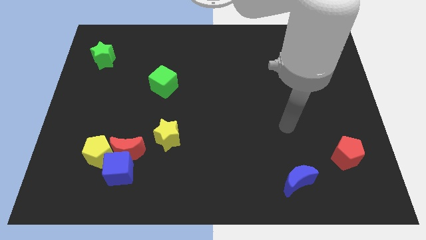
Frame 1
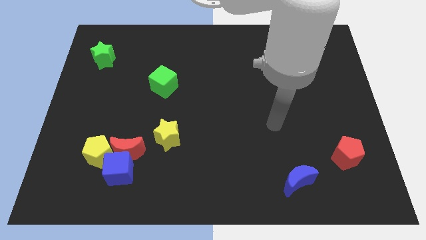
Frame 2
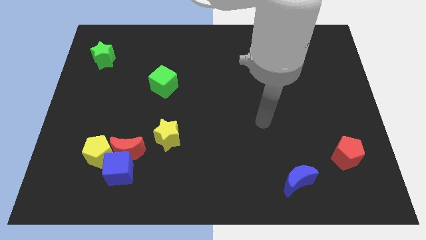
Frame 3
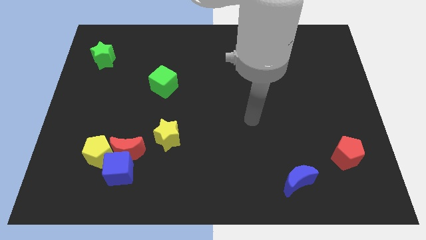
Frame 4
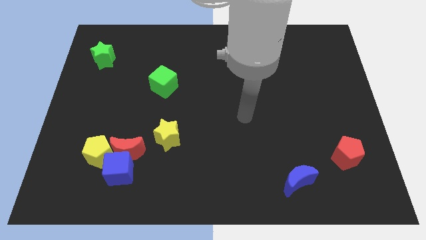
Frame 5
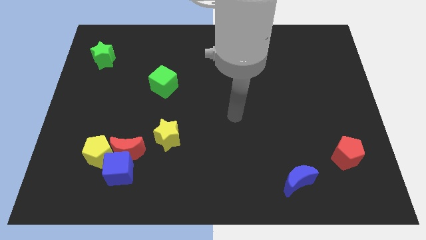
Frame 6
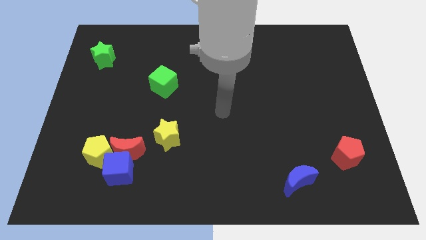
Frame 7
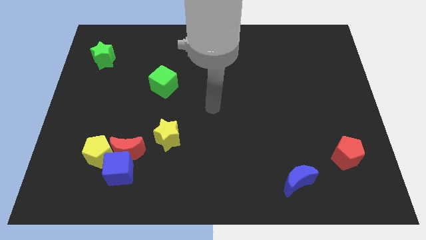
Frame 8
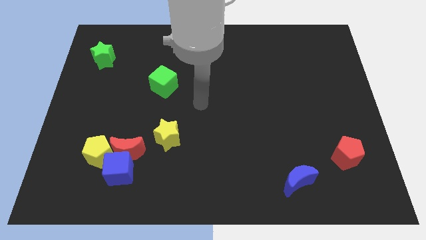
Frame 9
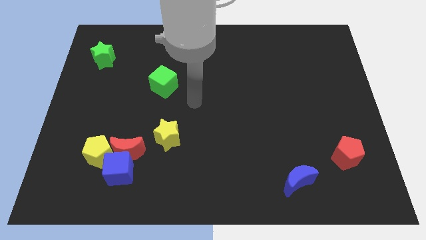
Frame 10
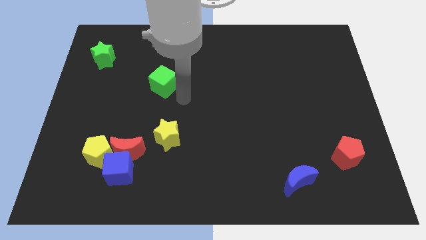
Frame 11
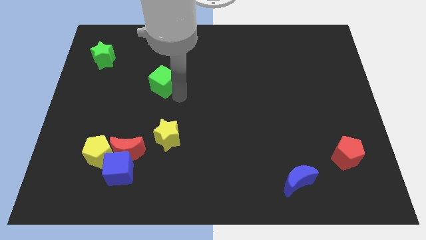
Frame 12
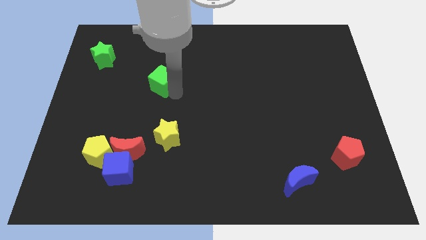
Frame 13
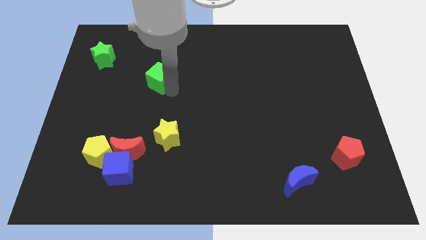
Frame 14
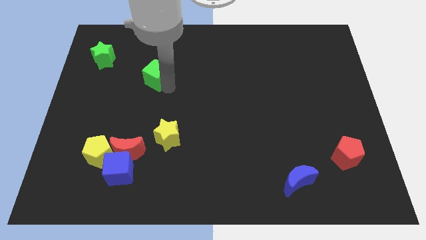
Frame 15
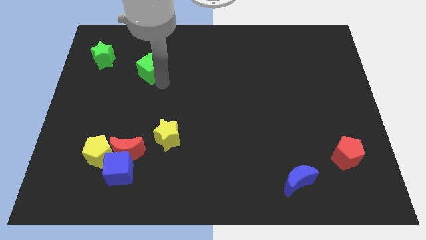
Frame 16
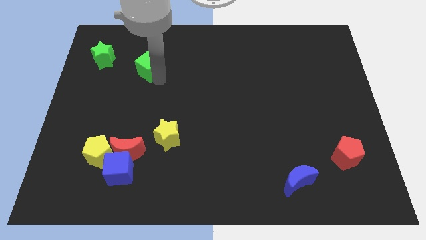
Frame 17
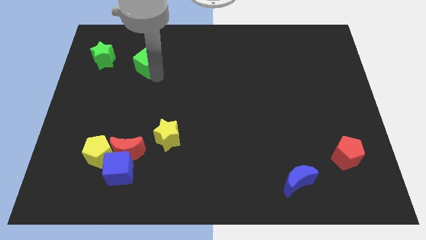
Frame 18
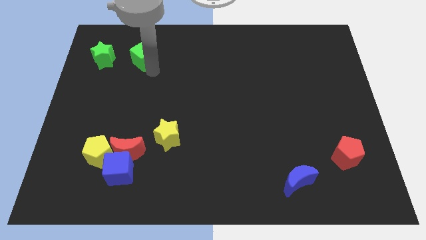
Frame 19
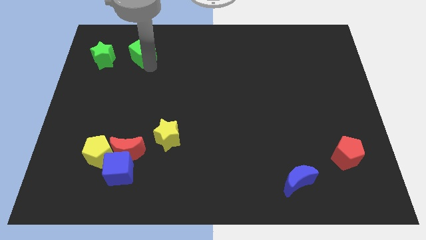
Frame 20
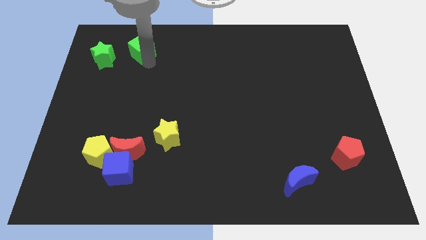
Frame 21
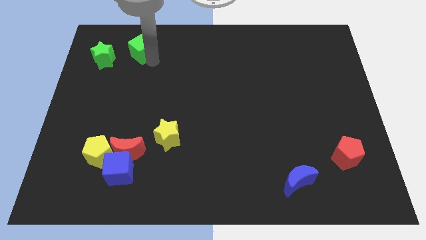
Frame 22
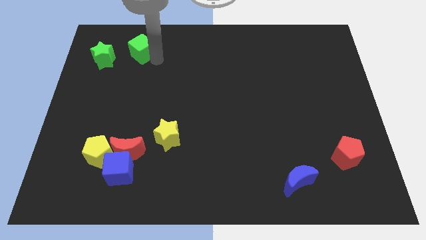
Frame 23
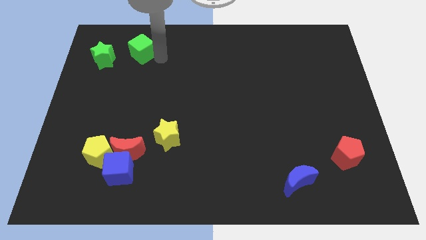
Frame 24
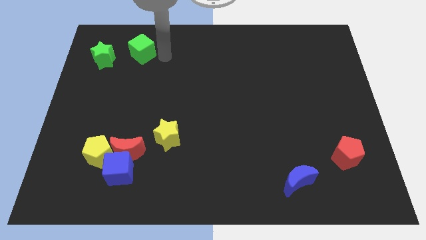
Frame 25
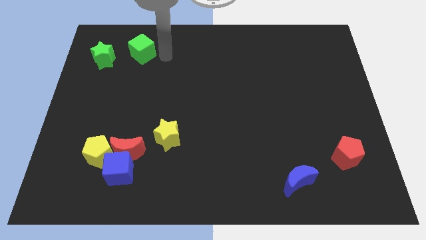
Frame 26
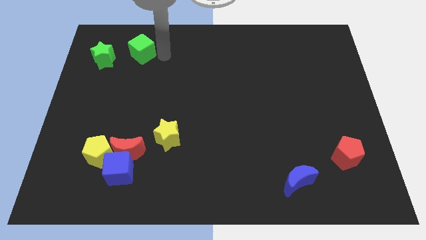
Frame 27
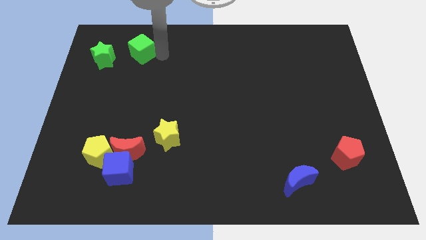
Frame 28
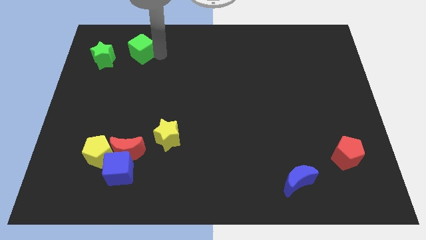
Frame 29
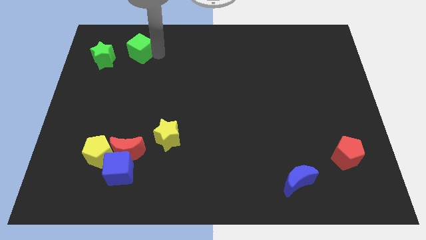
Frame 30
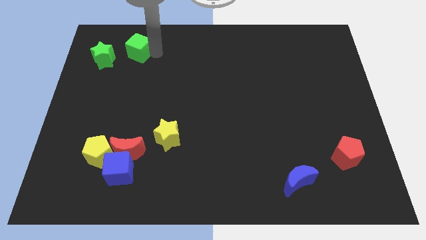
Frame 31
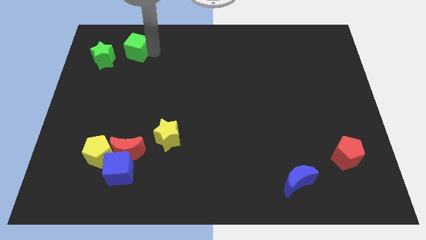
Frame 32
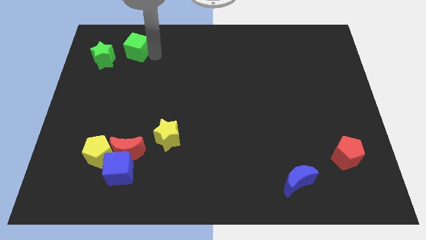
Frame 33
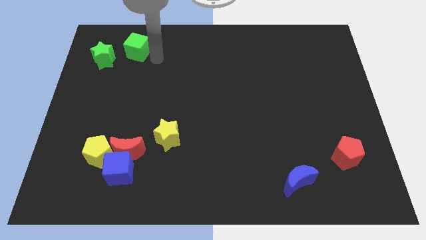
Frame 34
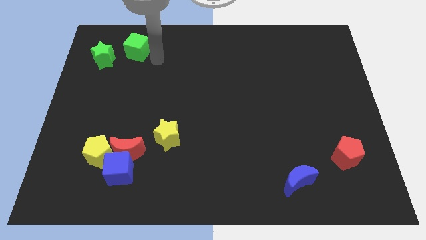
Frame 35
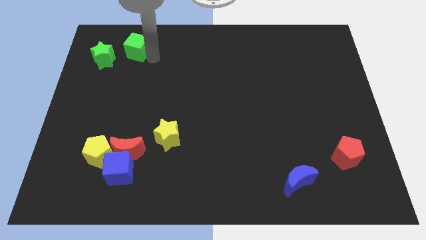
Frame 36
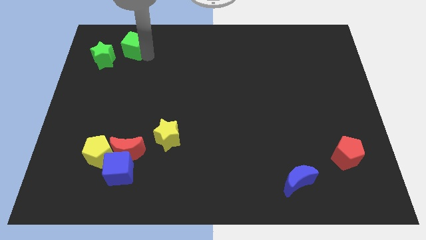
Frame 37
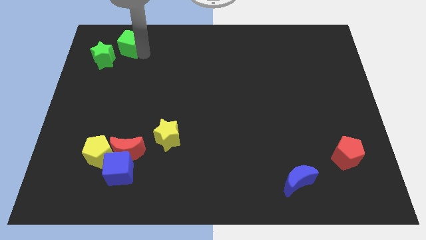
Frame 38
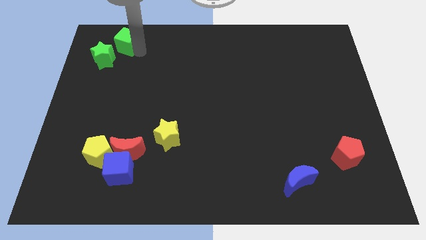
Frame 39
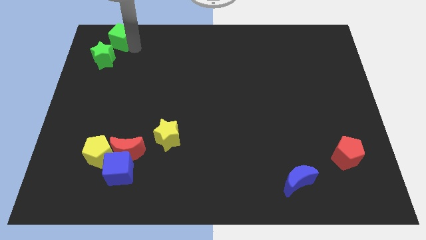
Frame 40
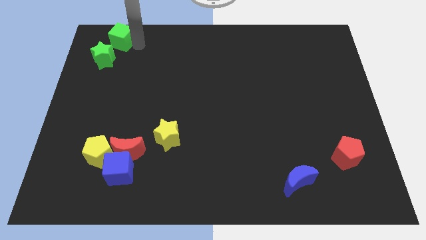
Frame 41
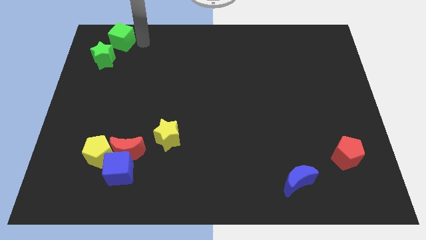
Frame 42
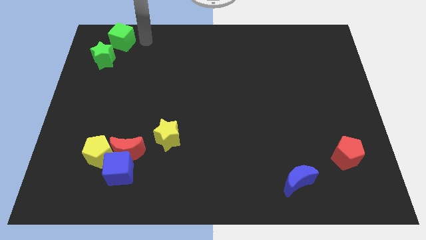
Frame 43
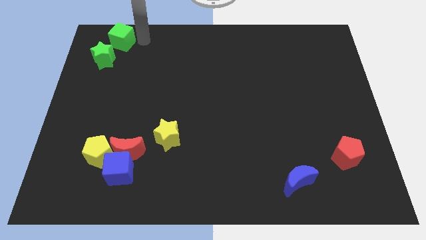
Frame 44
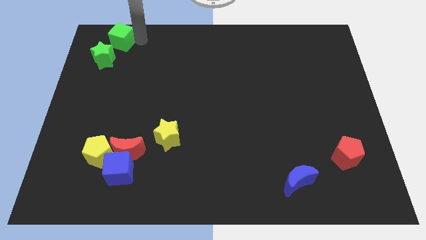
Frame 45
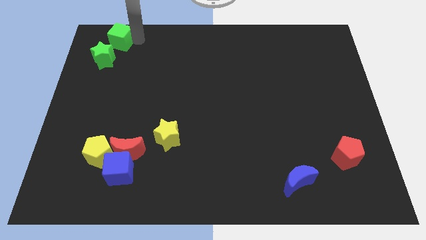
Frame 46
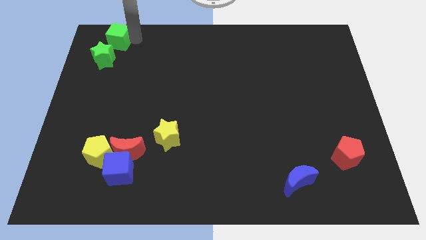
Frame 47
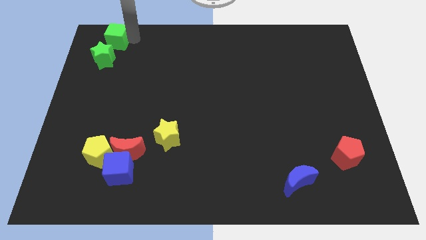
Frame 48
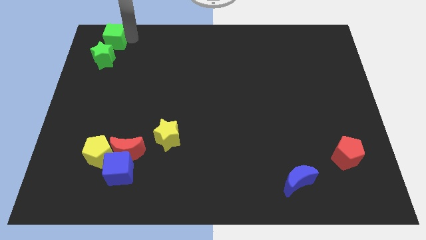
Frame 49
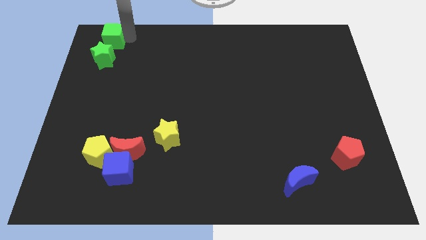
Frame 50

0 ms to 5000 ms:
slide the green cube to the top left corner

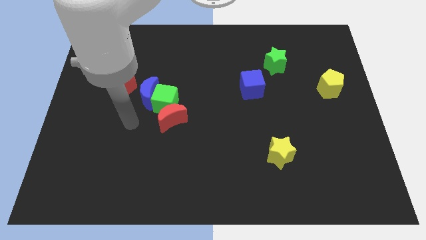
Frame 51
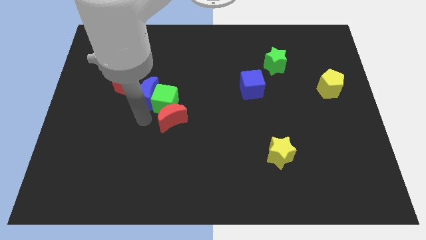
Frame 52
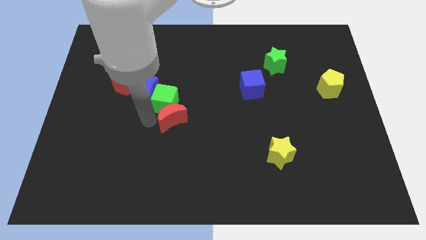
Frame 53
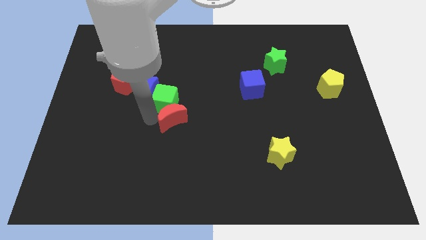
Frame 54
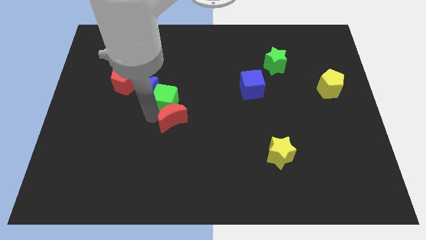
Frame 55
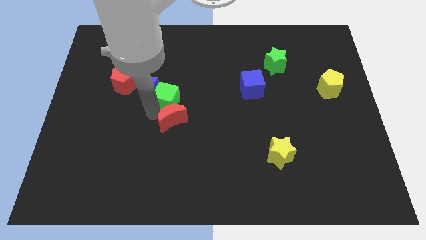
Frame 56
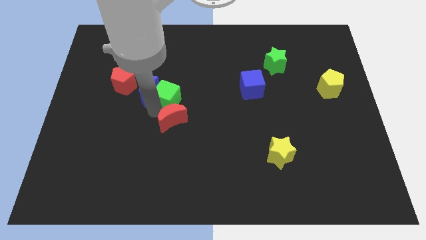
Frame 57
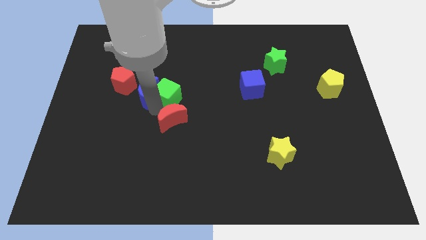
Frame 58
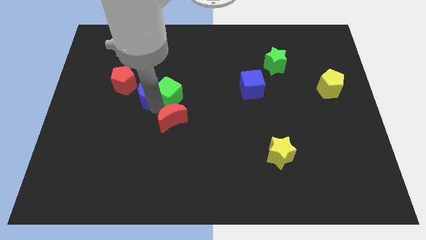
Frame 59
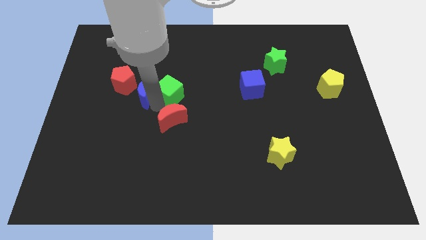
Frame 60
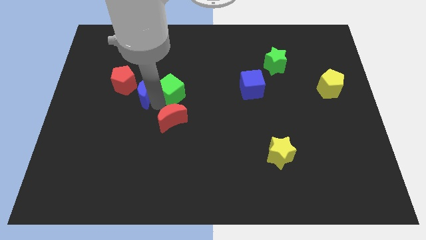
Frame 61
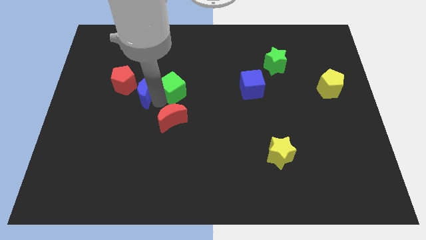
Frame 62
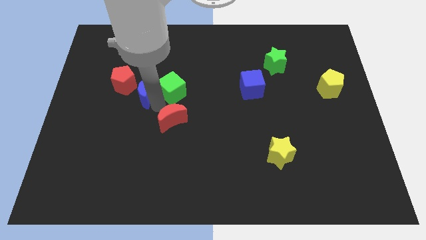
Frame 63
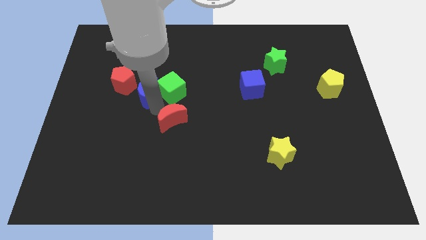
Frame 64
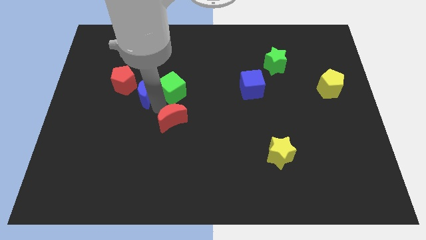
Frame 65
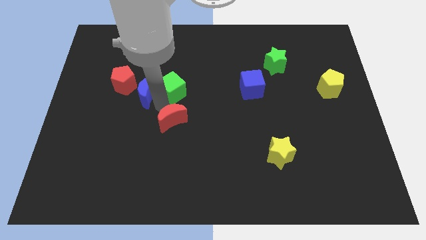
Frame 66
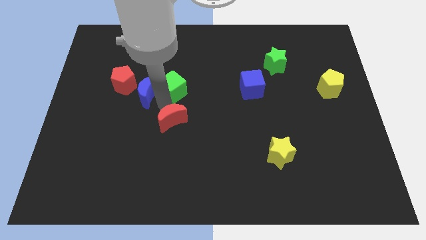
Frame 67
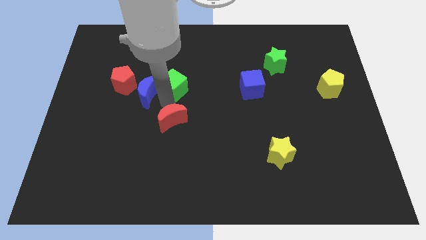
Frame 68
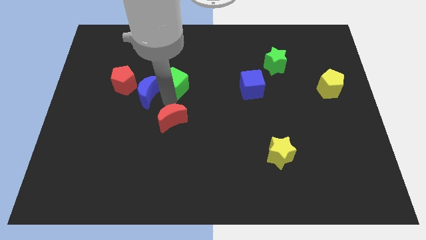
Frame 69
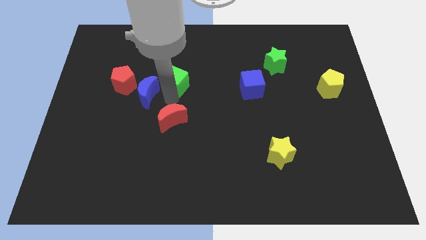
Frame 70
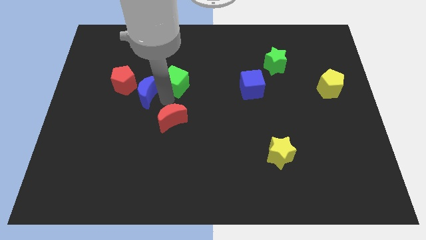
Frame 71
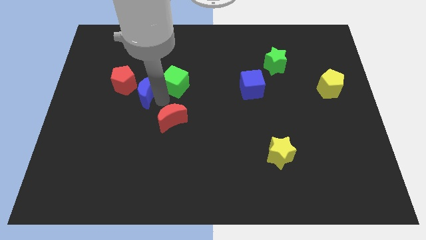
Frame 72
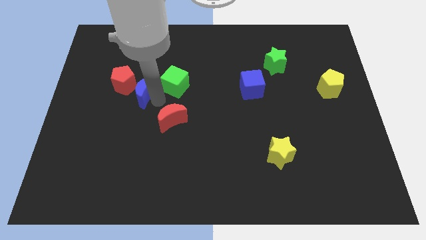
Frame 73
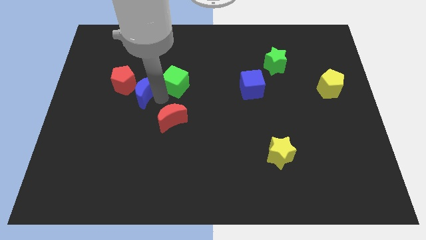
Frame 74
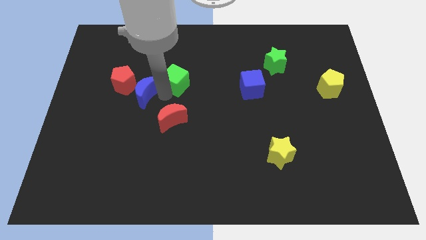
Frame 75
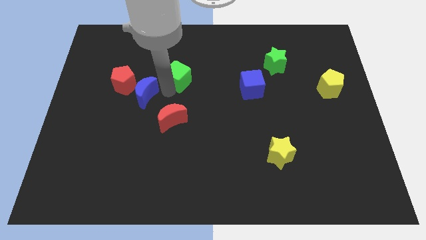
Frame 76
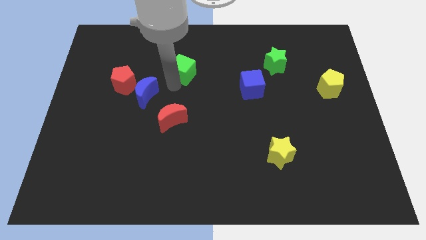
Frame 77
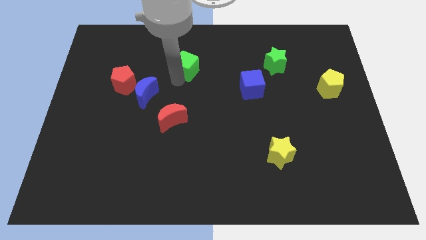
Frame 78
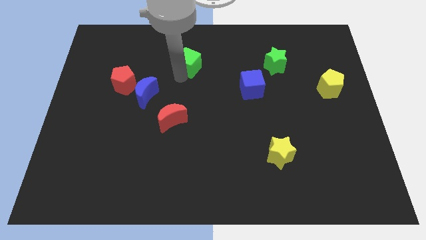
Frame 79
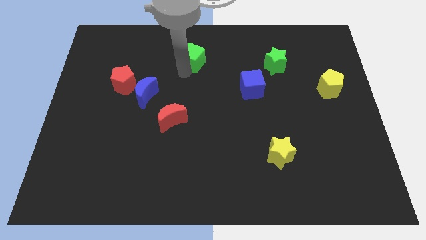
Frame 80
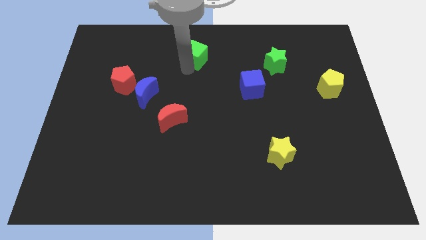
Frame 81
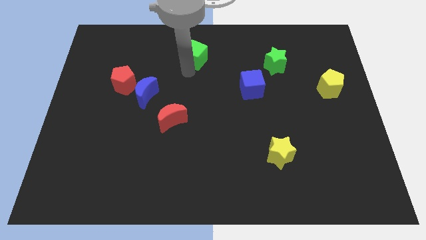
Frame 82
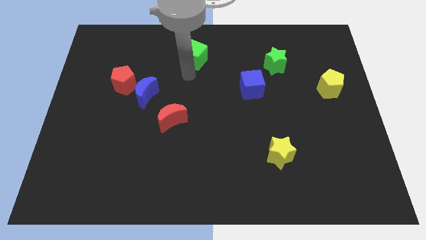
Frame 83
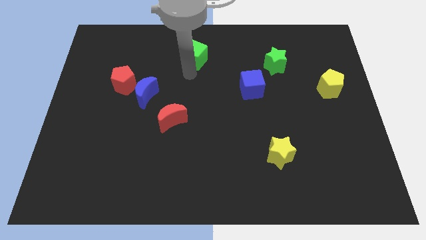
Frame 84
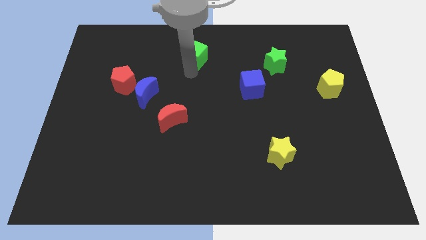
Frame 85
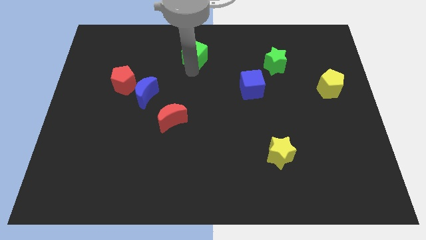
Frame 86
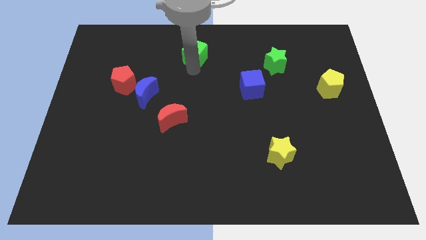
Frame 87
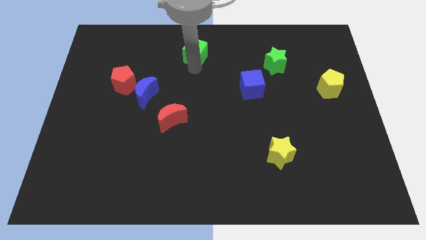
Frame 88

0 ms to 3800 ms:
push the green cube to the towards your base

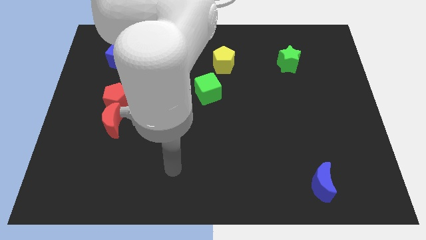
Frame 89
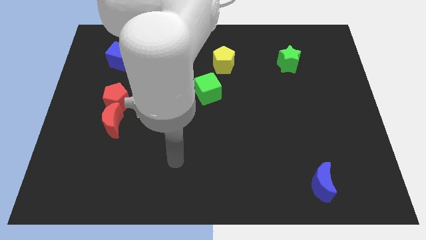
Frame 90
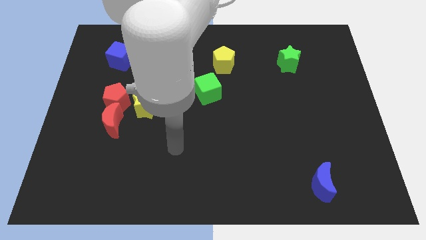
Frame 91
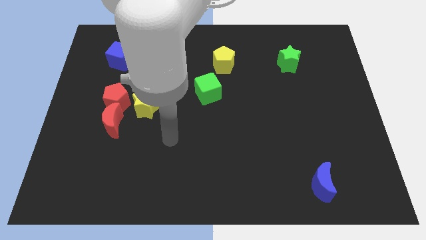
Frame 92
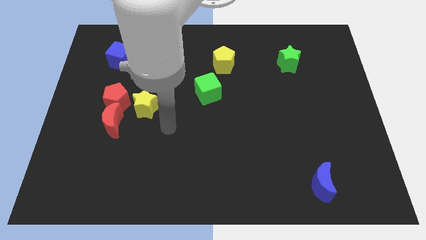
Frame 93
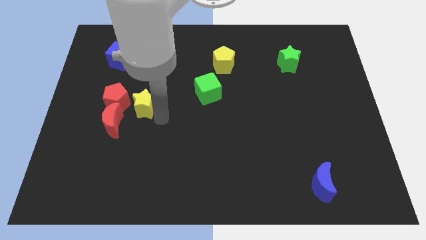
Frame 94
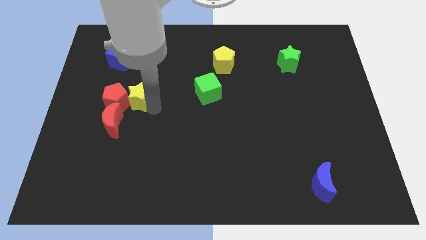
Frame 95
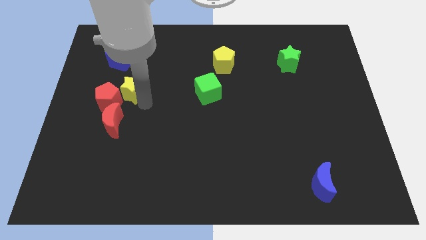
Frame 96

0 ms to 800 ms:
put the red pentagon to the left side of the board
